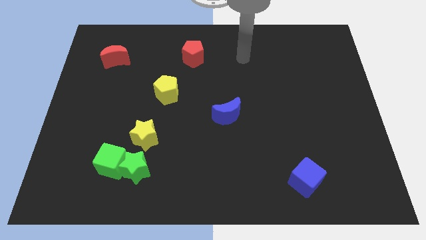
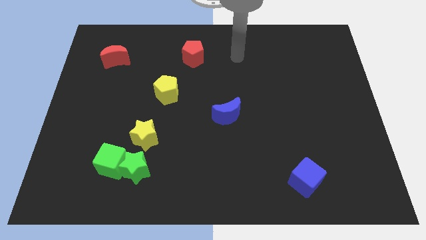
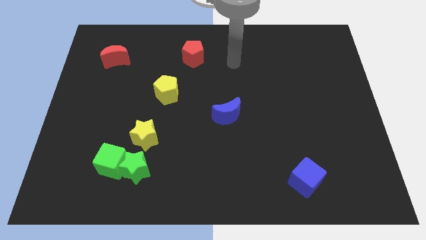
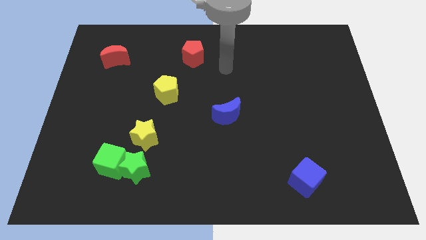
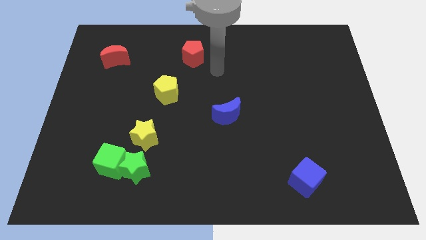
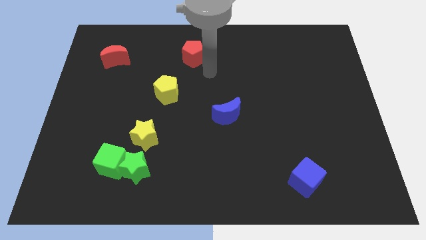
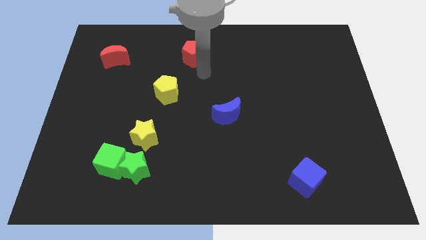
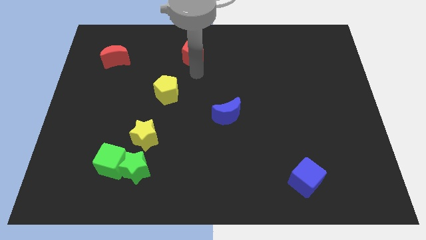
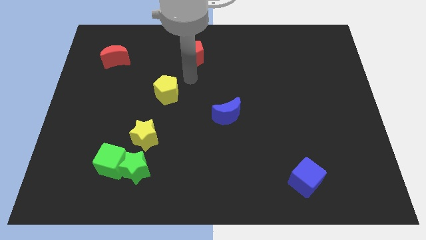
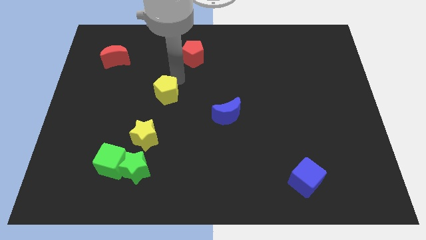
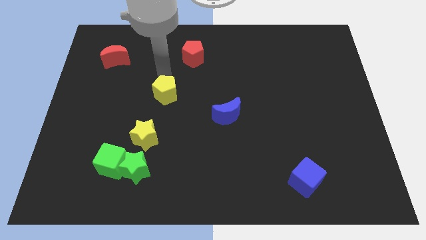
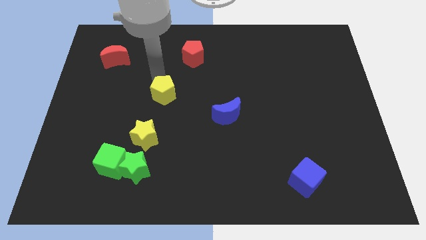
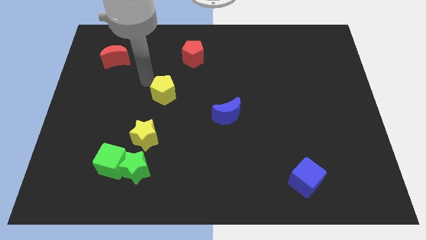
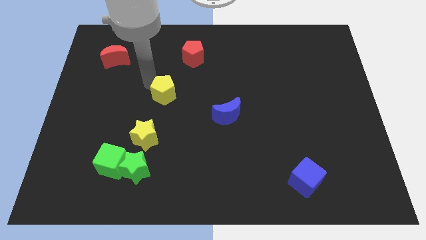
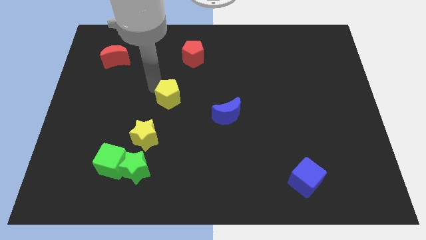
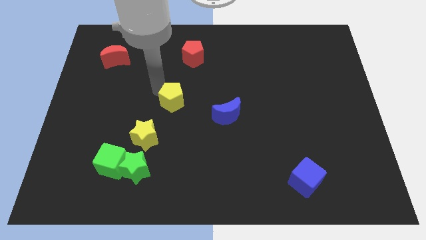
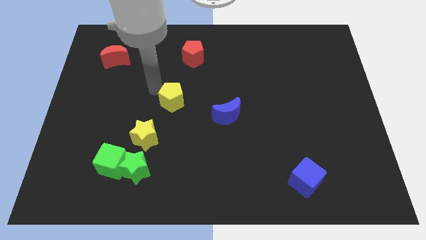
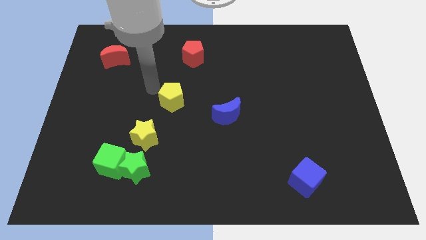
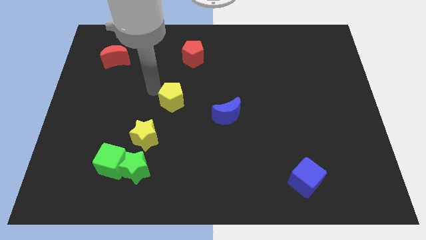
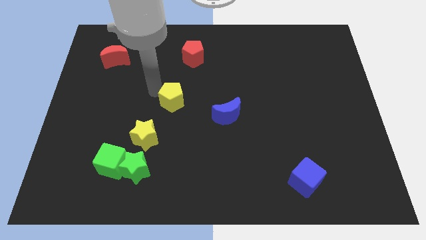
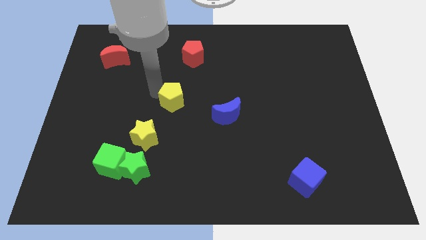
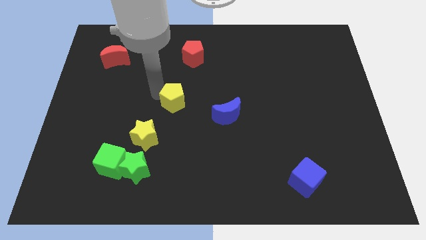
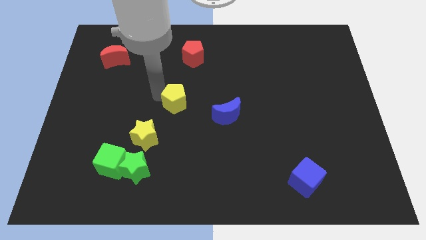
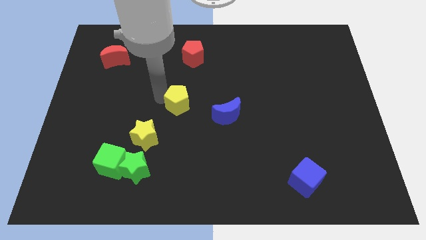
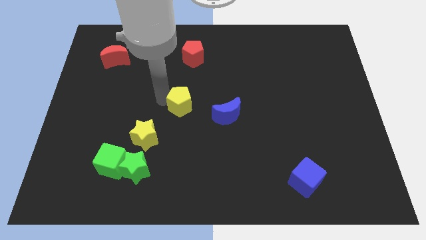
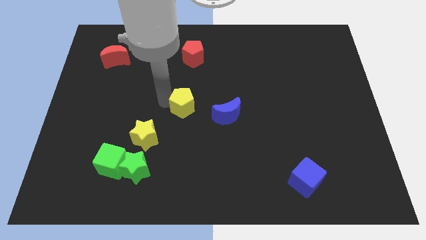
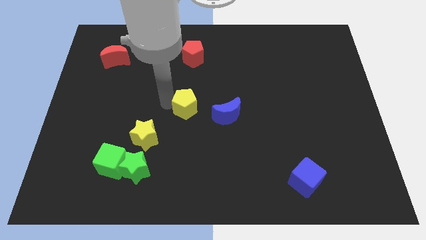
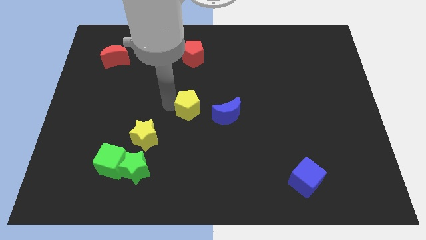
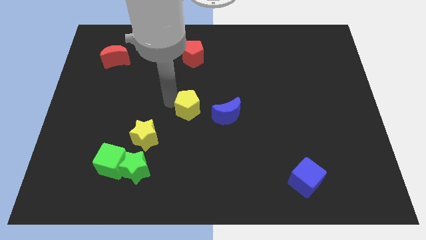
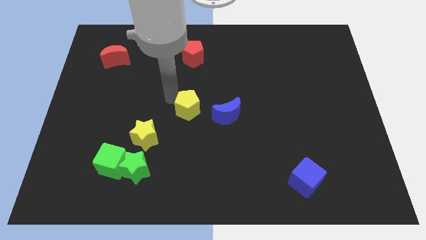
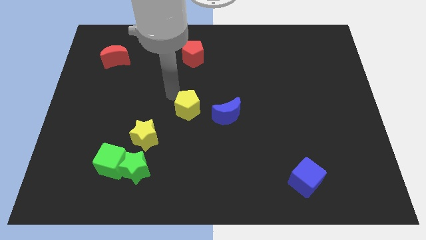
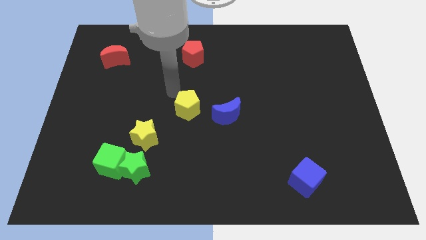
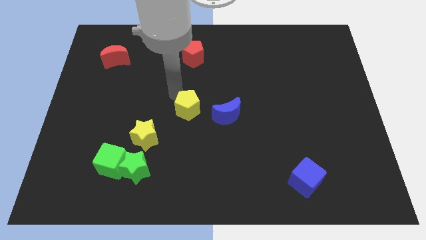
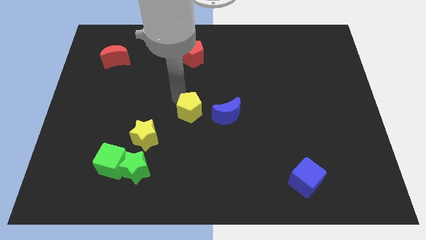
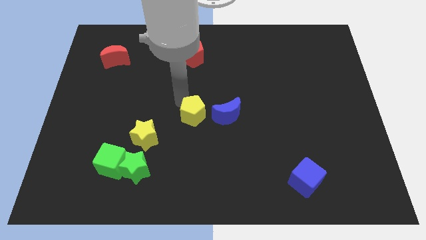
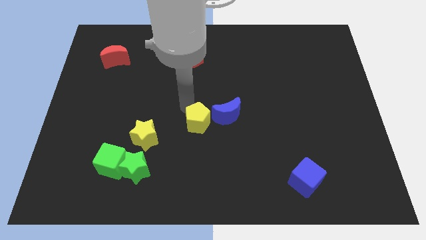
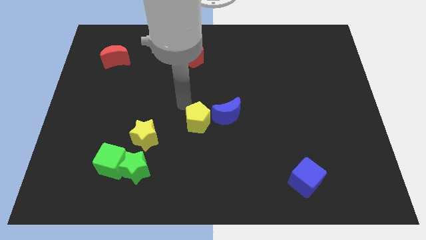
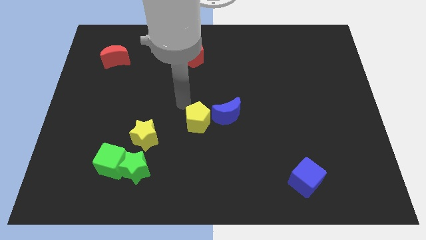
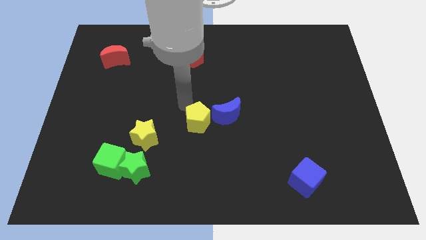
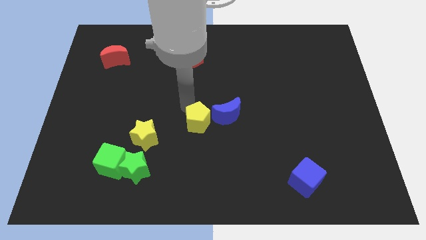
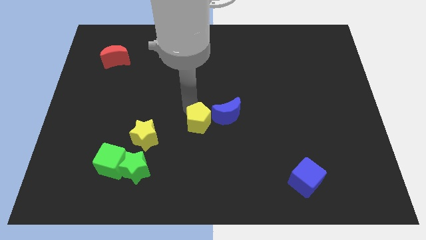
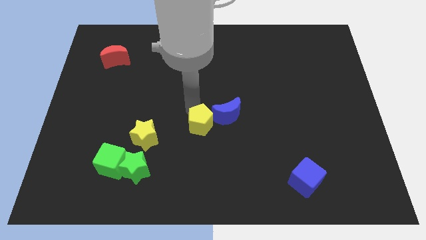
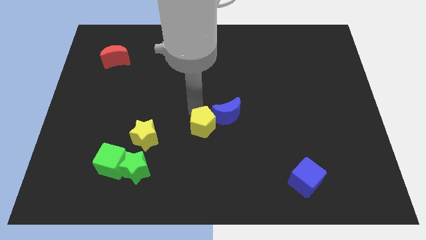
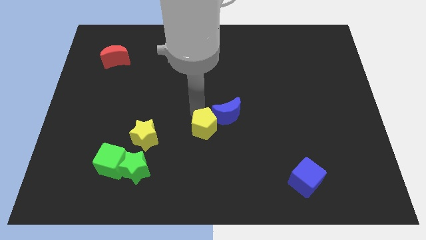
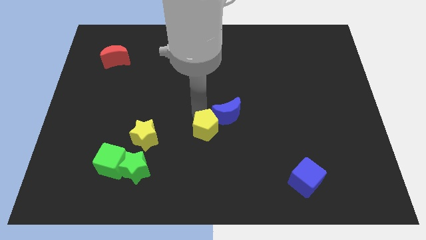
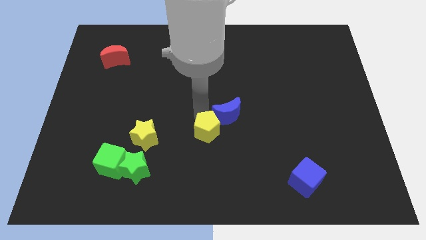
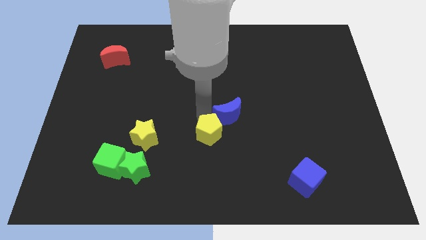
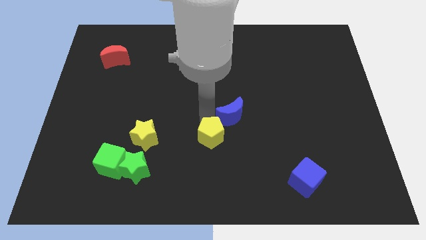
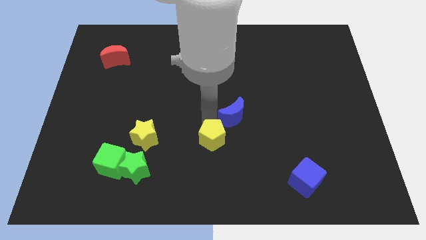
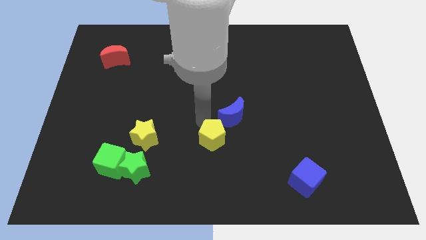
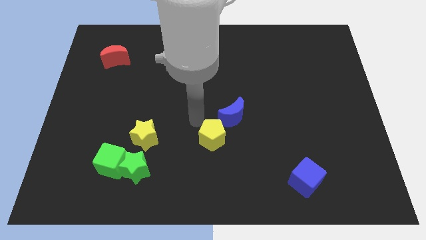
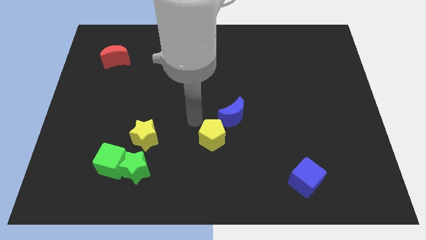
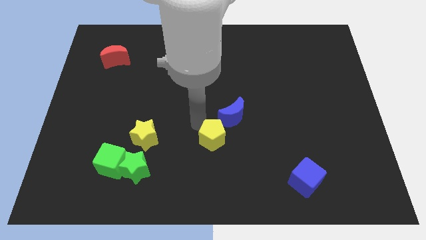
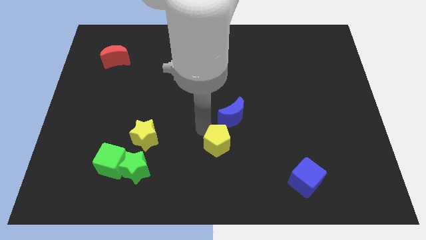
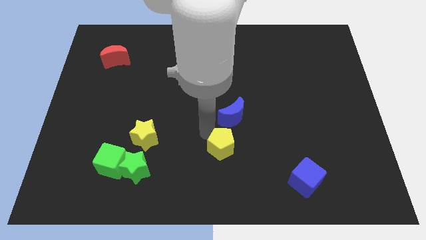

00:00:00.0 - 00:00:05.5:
push the yellow pentagon down and then right

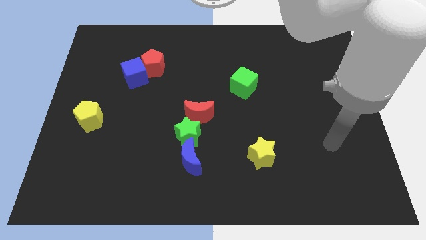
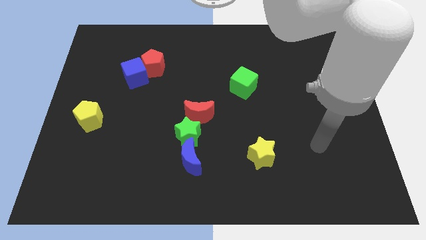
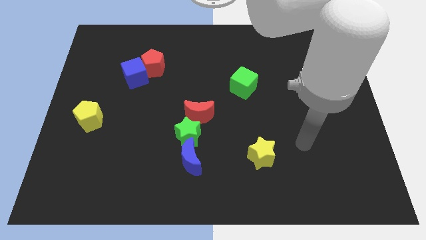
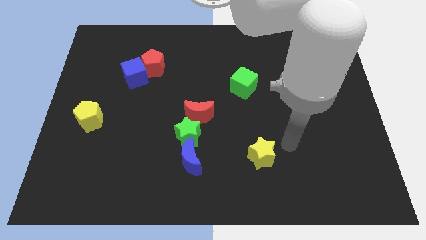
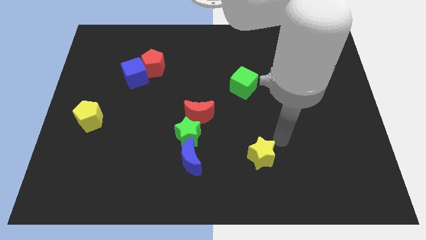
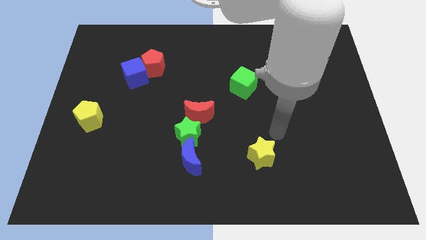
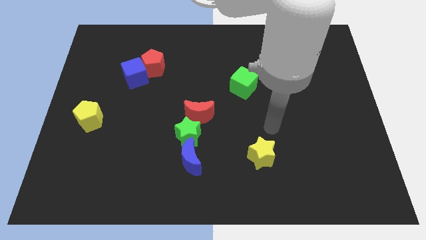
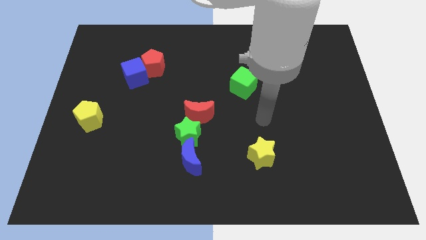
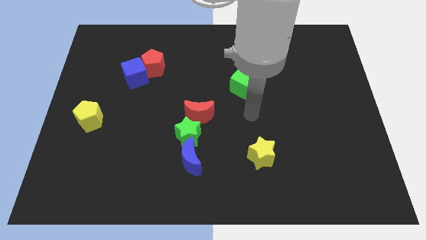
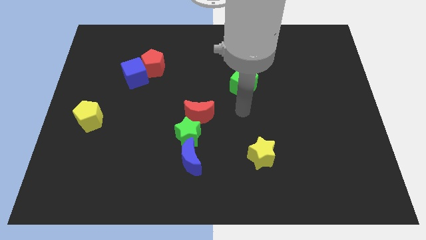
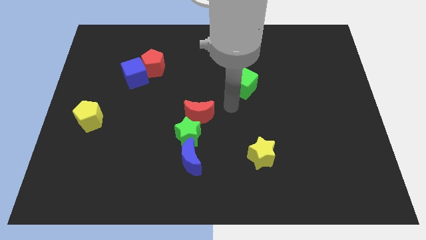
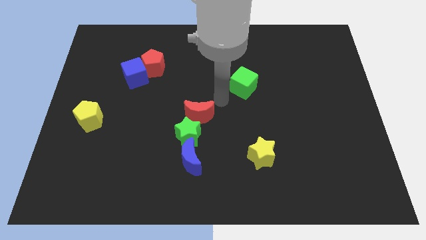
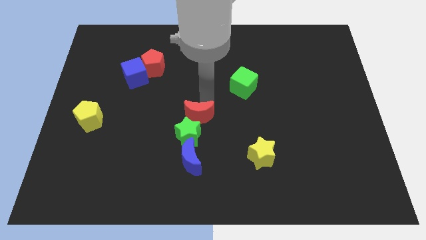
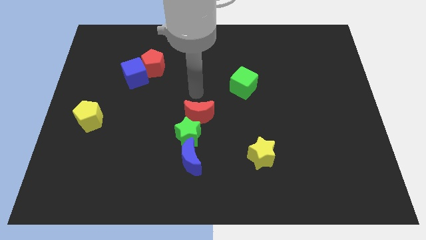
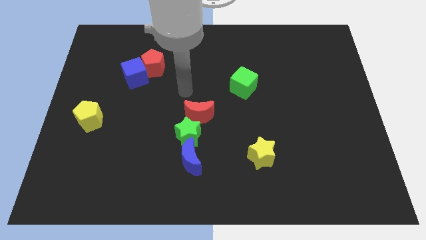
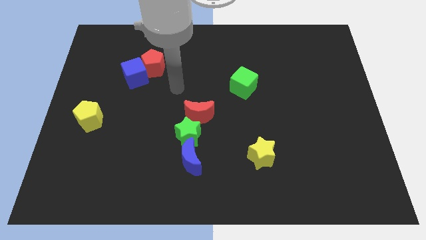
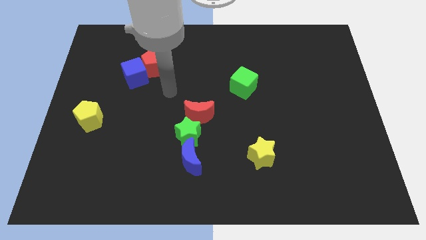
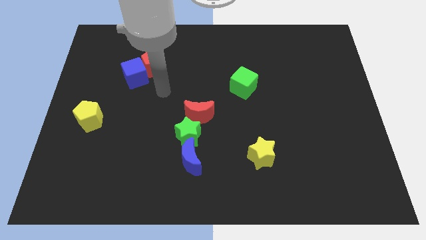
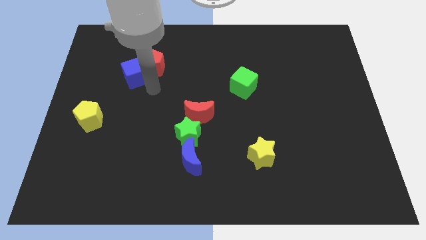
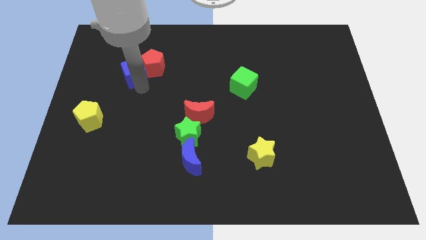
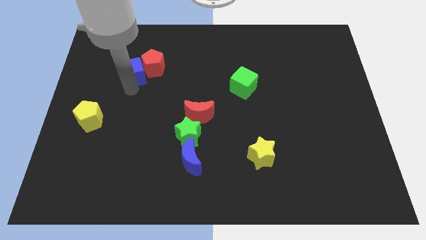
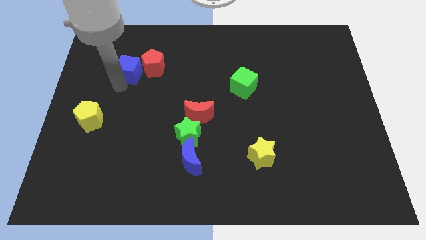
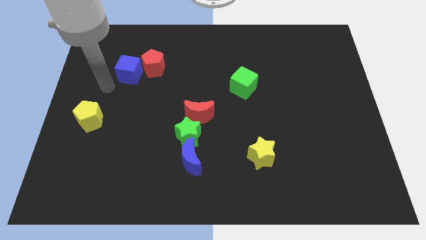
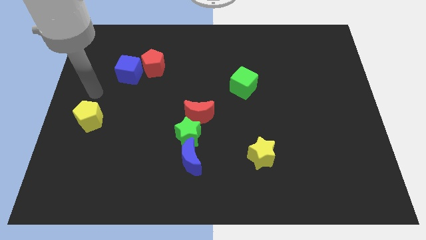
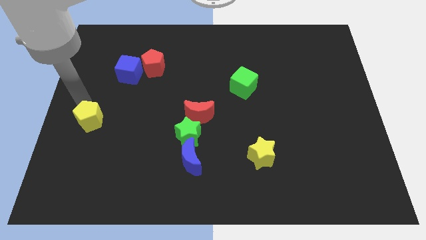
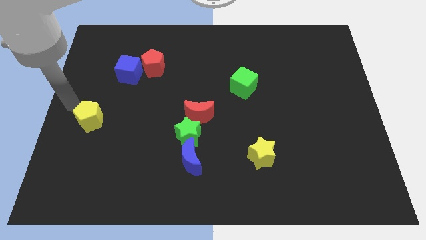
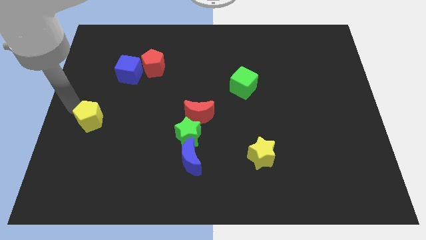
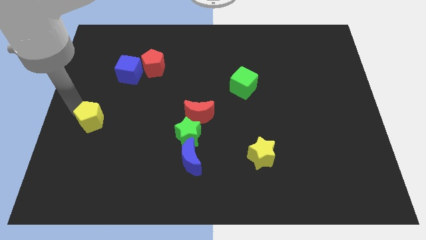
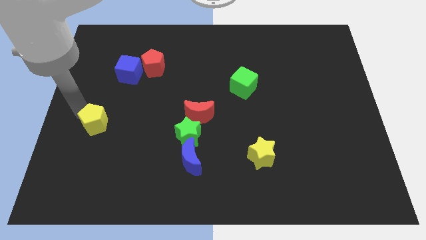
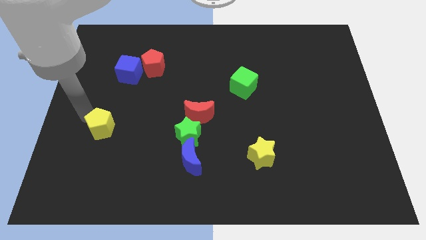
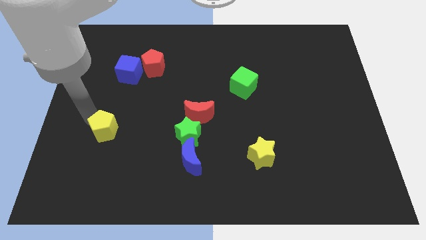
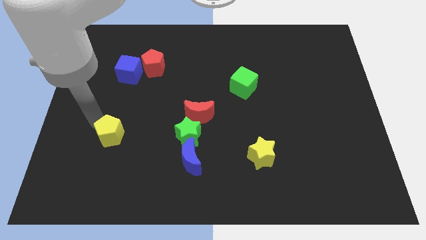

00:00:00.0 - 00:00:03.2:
slide the yellow pentagon downwards and to the right diagonally somewhat
